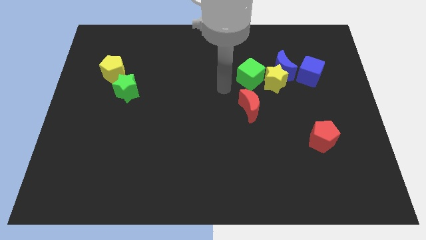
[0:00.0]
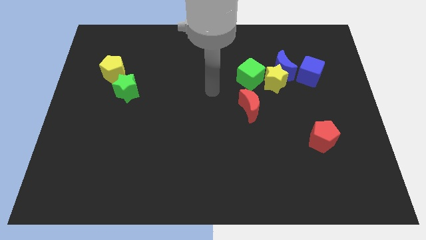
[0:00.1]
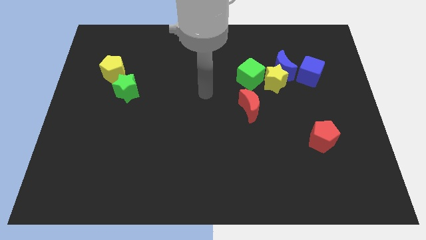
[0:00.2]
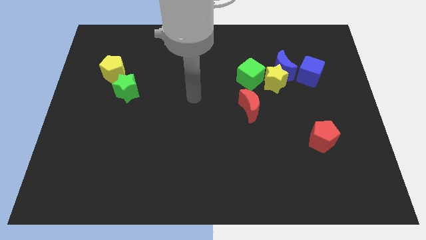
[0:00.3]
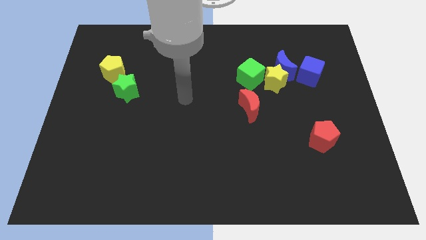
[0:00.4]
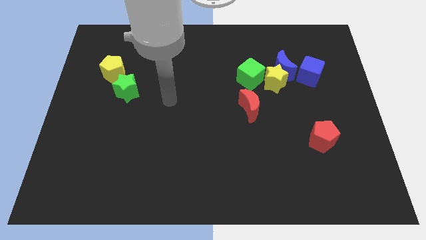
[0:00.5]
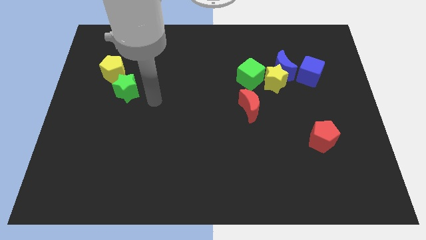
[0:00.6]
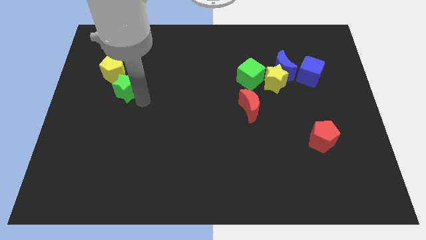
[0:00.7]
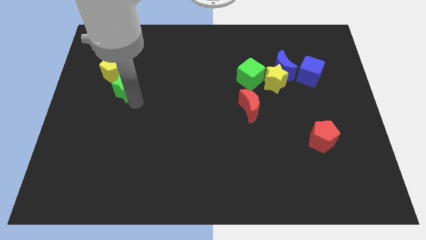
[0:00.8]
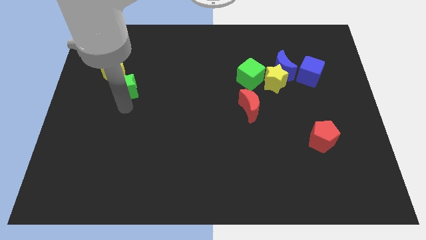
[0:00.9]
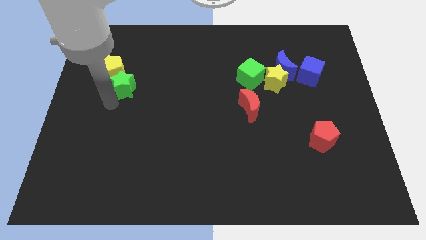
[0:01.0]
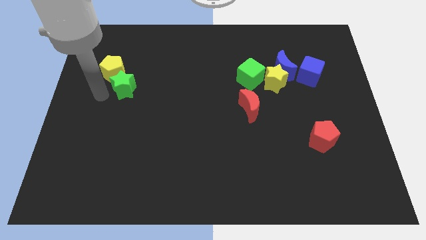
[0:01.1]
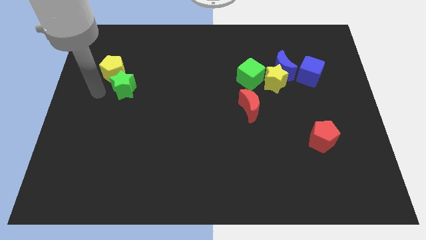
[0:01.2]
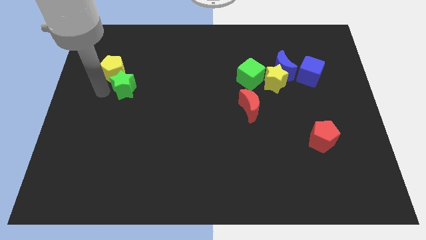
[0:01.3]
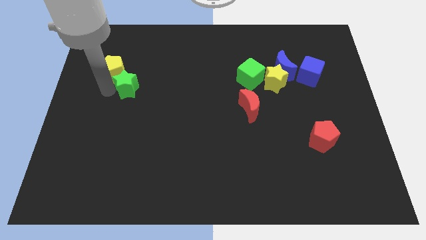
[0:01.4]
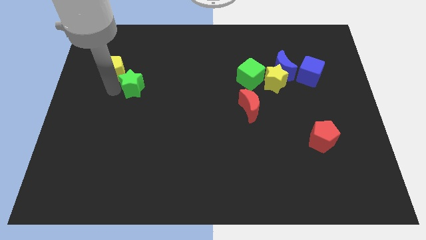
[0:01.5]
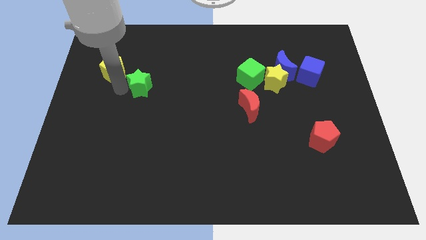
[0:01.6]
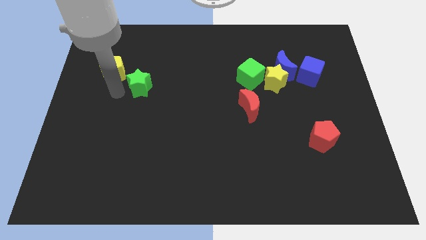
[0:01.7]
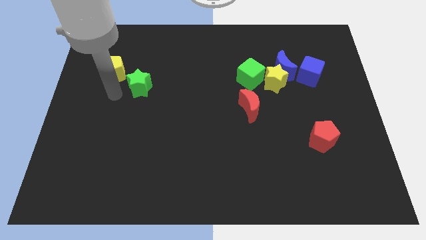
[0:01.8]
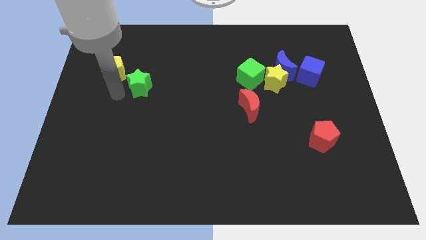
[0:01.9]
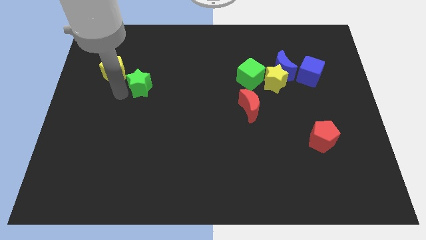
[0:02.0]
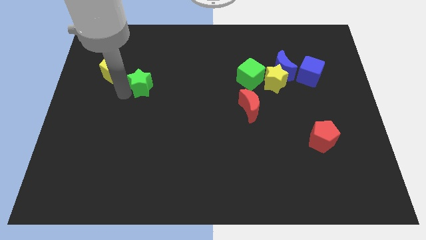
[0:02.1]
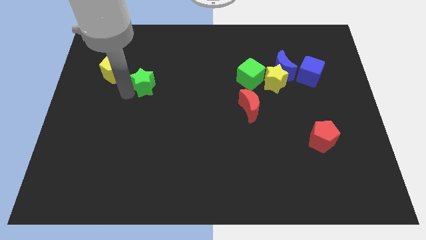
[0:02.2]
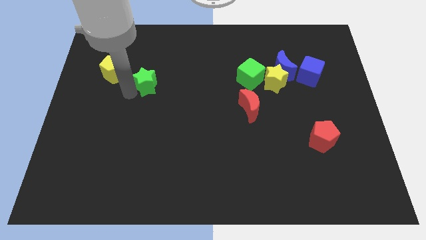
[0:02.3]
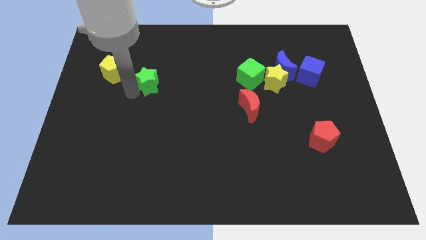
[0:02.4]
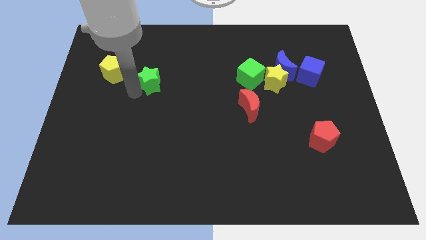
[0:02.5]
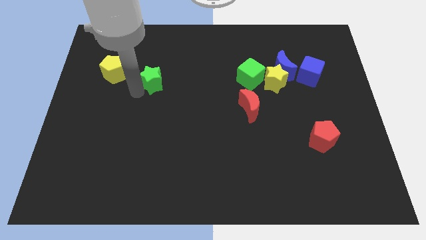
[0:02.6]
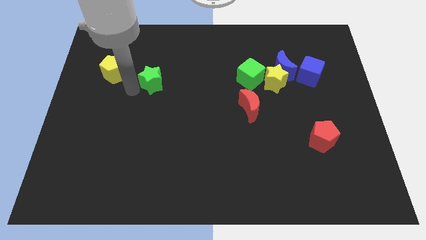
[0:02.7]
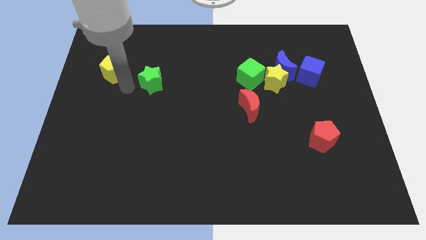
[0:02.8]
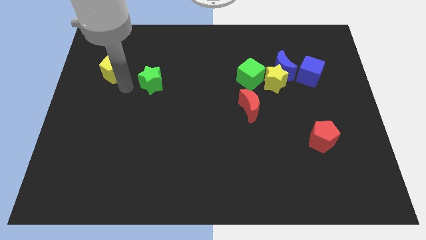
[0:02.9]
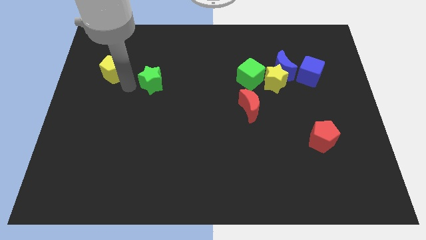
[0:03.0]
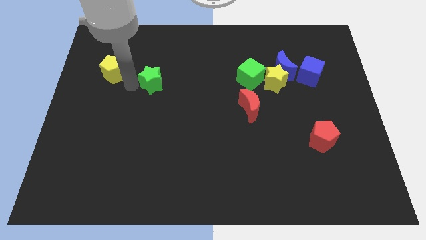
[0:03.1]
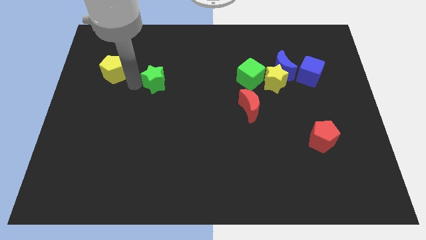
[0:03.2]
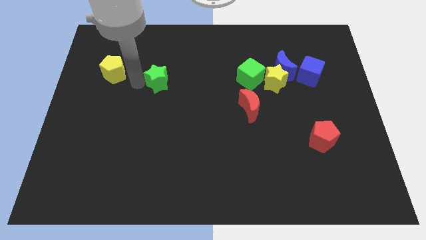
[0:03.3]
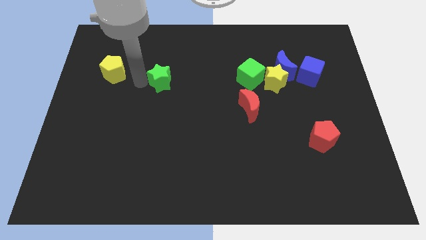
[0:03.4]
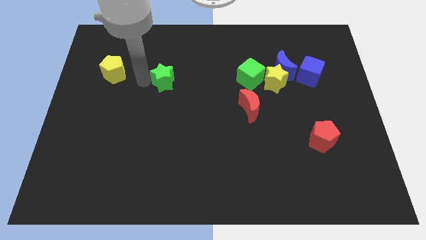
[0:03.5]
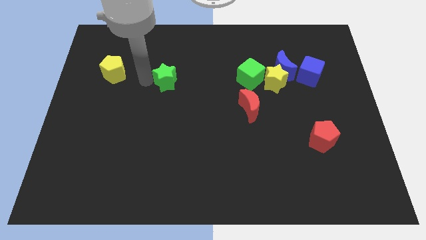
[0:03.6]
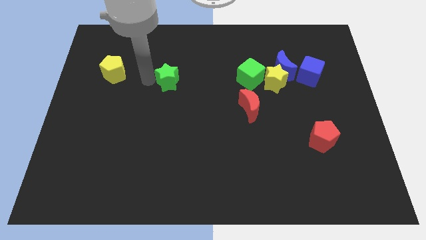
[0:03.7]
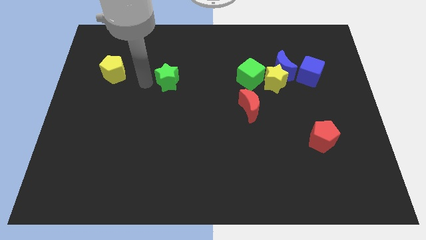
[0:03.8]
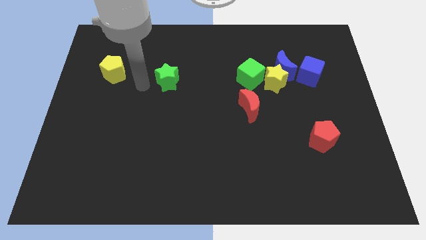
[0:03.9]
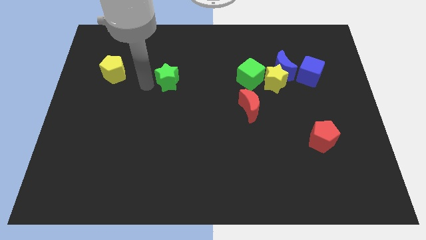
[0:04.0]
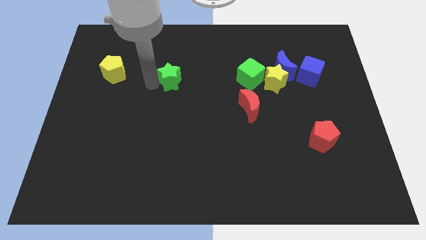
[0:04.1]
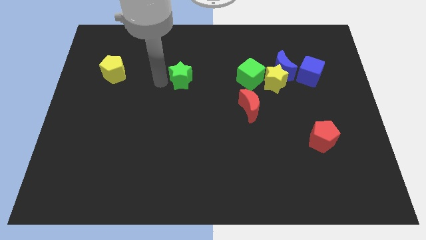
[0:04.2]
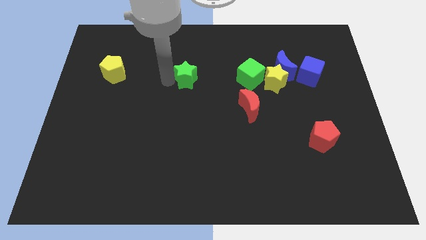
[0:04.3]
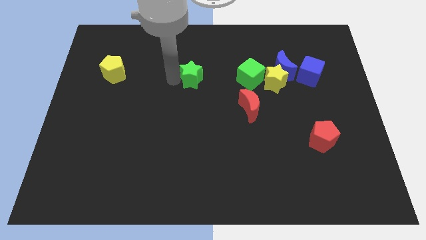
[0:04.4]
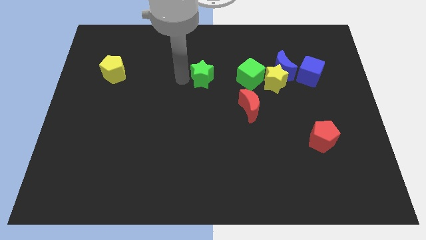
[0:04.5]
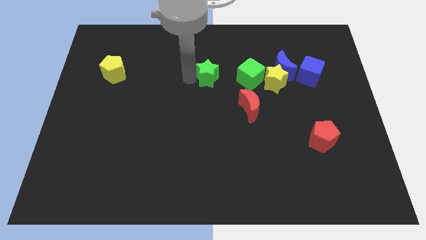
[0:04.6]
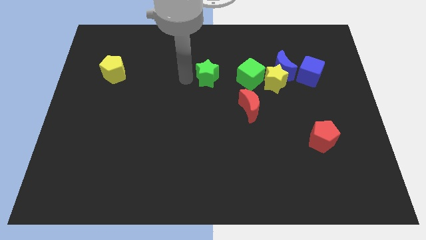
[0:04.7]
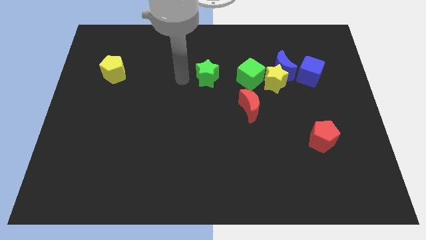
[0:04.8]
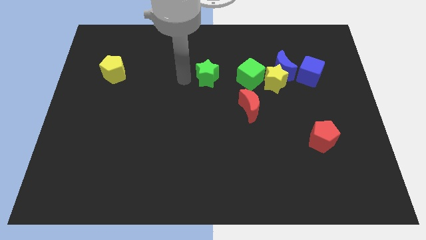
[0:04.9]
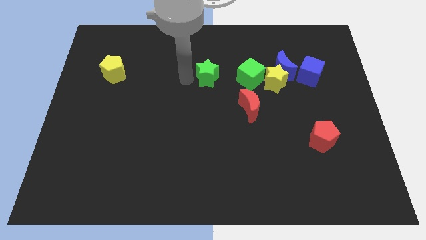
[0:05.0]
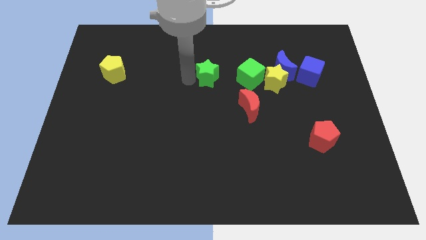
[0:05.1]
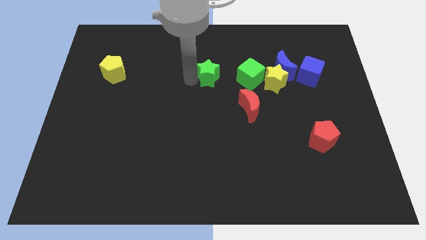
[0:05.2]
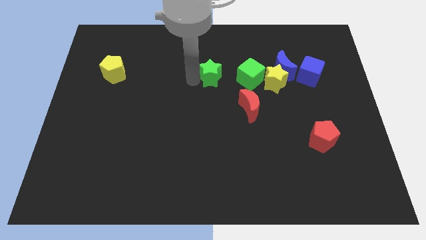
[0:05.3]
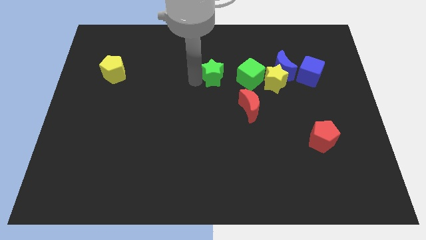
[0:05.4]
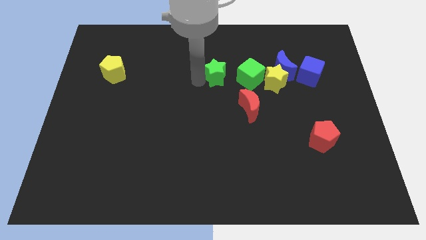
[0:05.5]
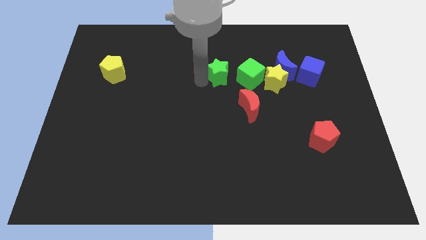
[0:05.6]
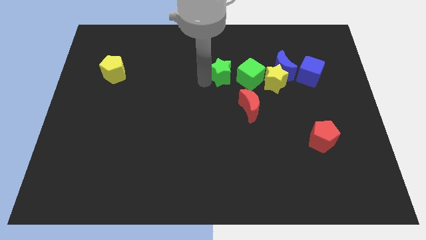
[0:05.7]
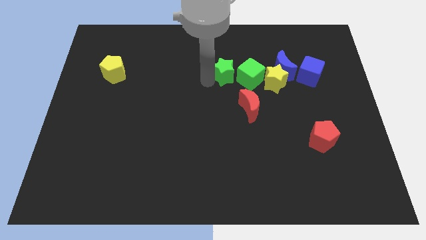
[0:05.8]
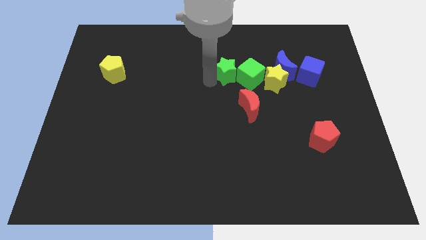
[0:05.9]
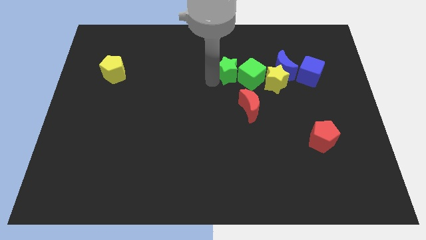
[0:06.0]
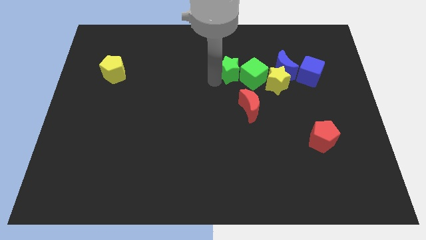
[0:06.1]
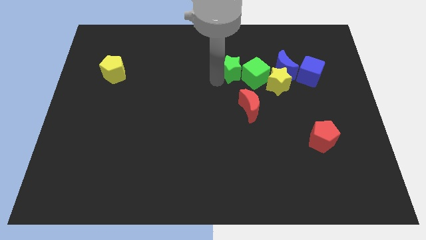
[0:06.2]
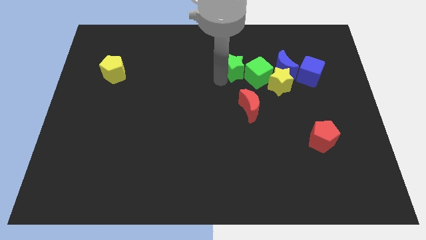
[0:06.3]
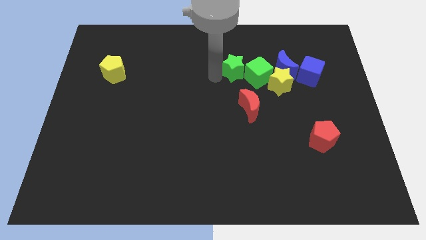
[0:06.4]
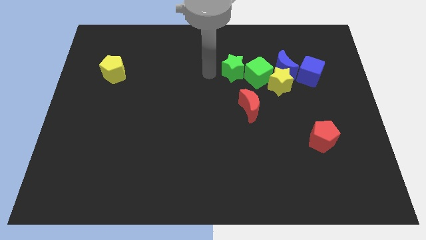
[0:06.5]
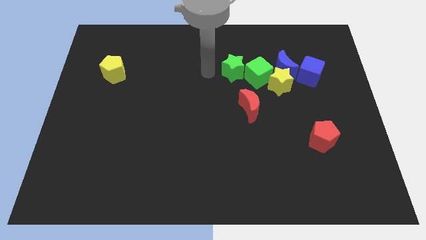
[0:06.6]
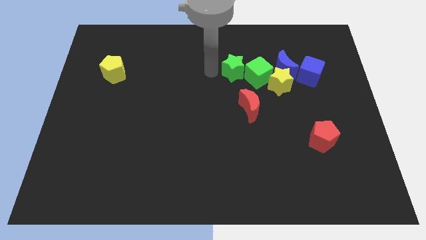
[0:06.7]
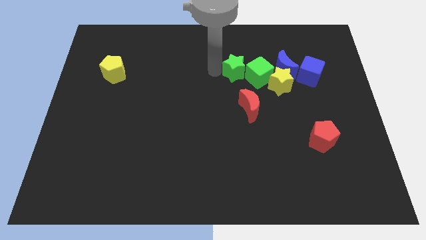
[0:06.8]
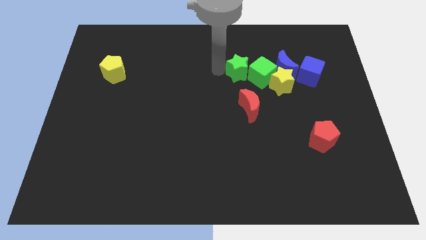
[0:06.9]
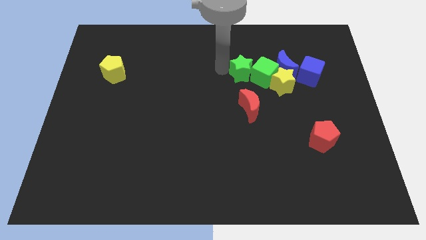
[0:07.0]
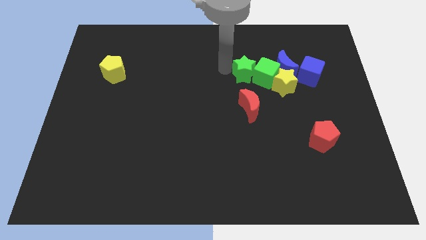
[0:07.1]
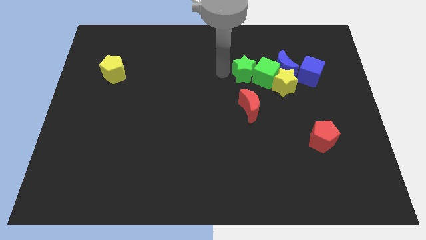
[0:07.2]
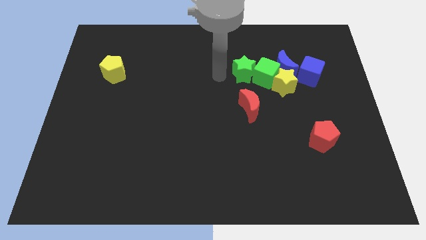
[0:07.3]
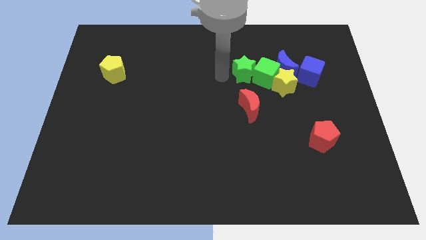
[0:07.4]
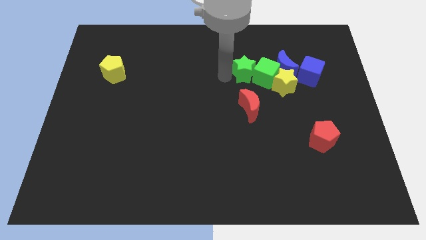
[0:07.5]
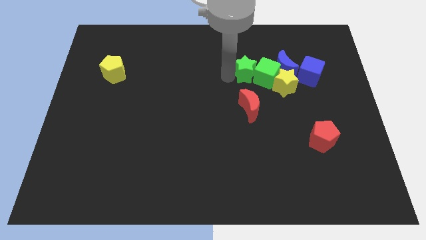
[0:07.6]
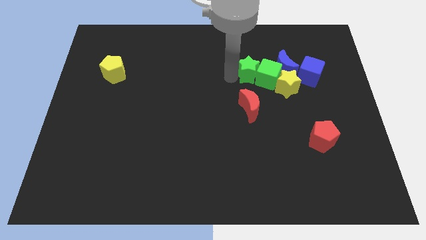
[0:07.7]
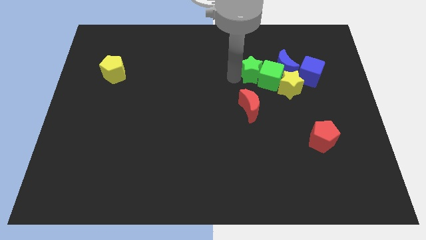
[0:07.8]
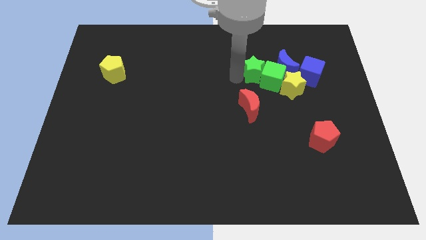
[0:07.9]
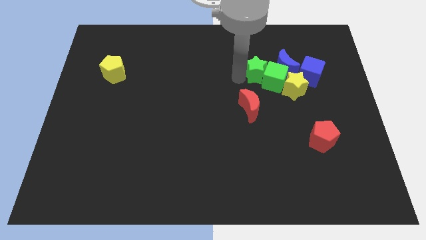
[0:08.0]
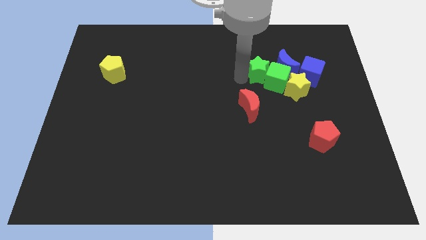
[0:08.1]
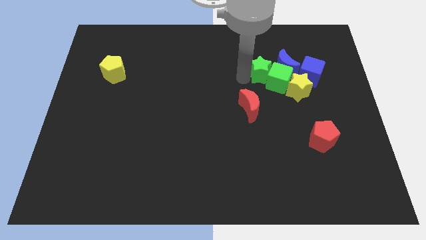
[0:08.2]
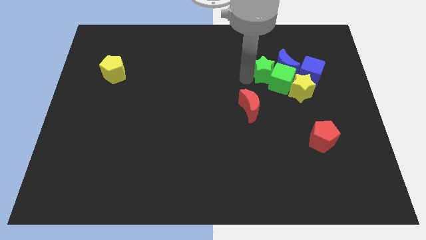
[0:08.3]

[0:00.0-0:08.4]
slide the green star towards the blue moon
